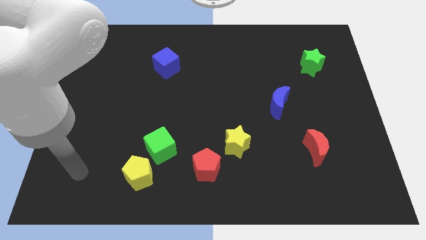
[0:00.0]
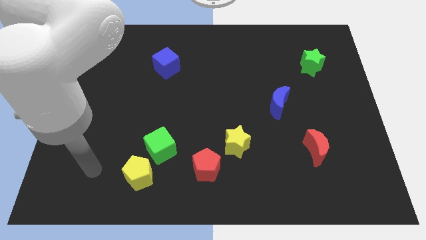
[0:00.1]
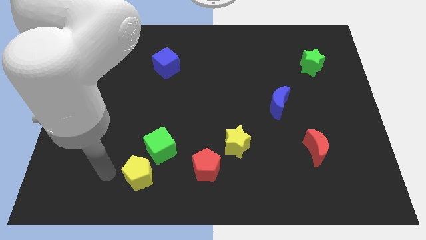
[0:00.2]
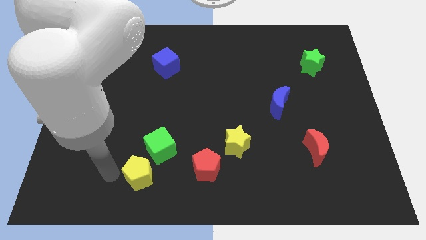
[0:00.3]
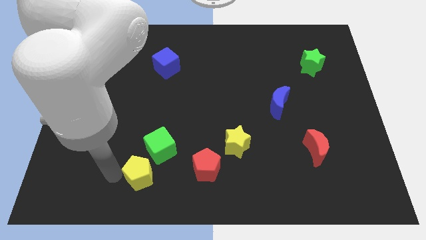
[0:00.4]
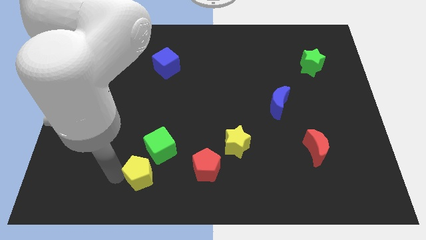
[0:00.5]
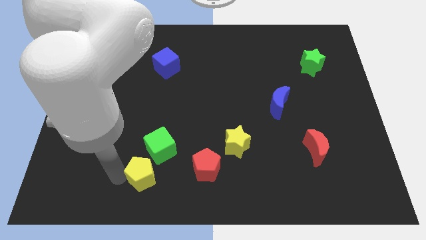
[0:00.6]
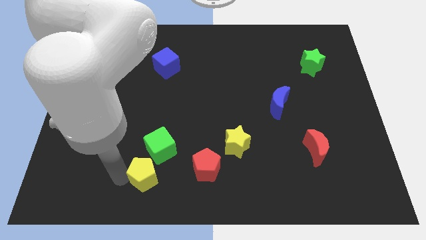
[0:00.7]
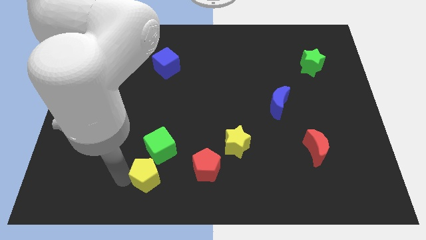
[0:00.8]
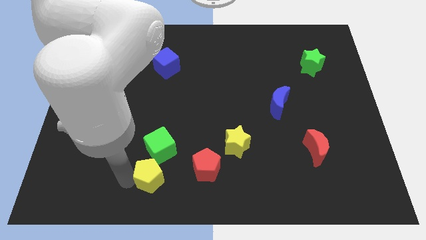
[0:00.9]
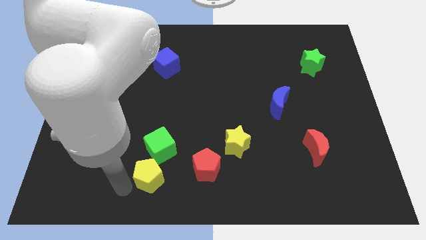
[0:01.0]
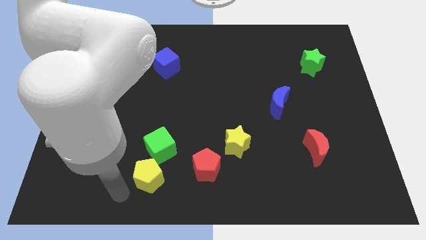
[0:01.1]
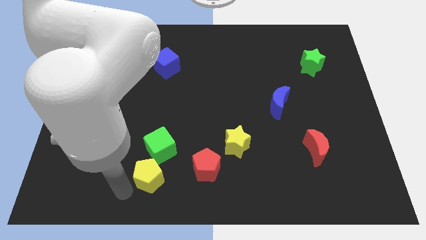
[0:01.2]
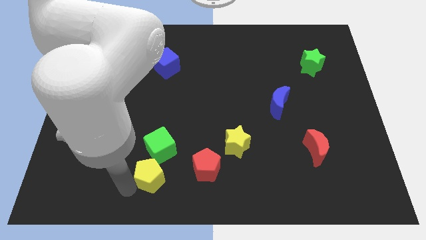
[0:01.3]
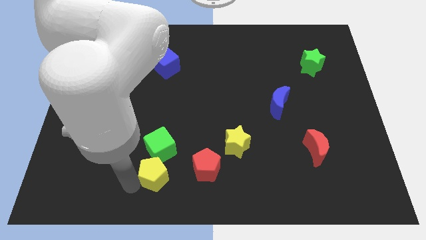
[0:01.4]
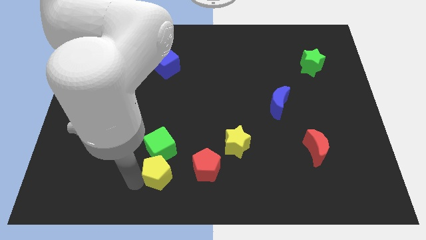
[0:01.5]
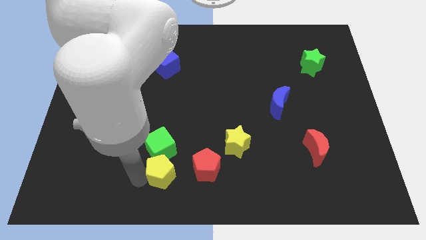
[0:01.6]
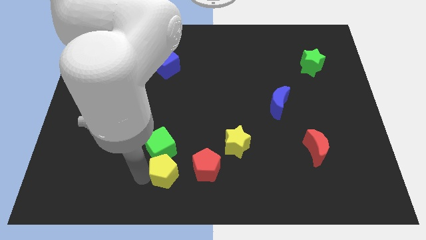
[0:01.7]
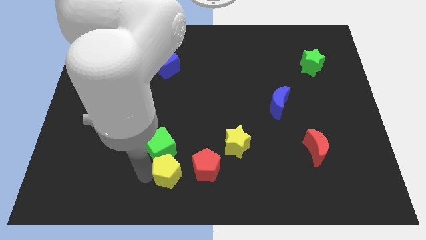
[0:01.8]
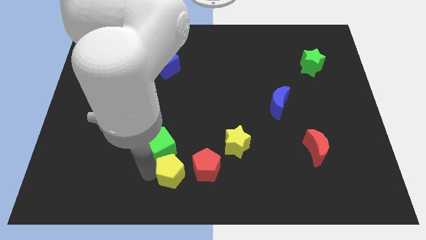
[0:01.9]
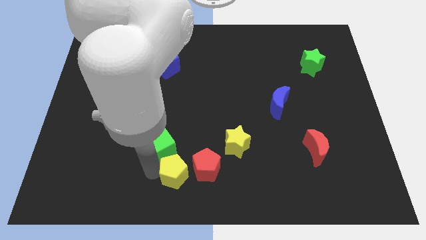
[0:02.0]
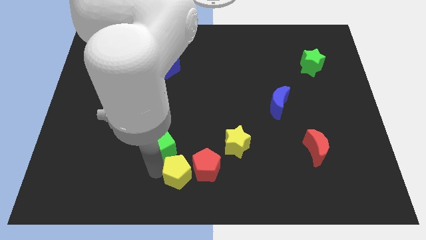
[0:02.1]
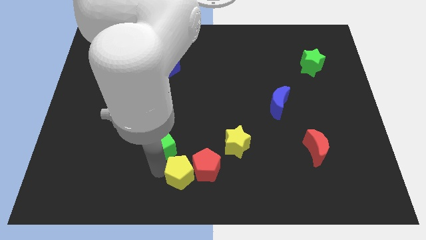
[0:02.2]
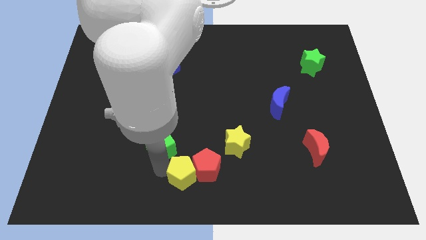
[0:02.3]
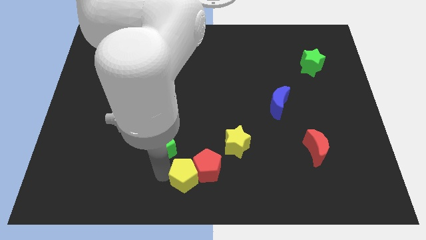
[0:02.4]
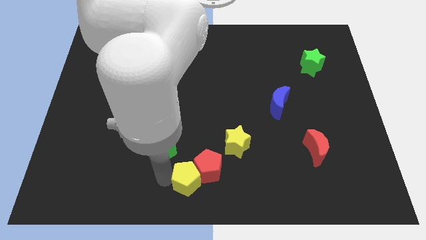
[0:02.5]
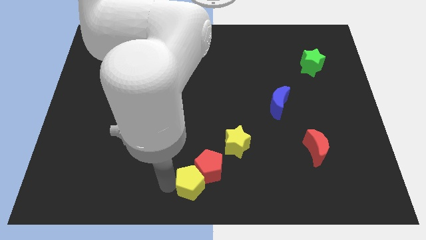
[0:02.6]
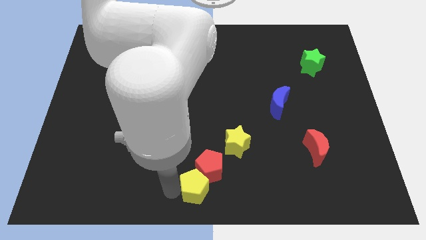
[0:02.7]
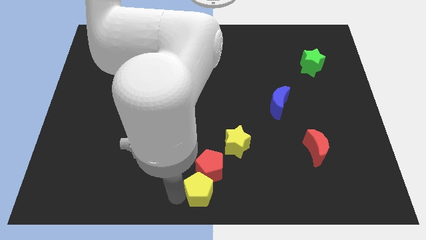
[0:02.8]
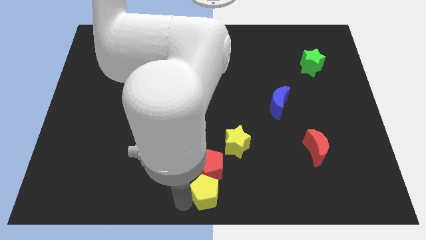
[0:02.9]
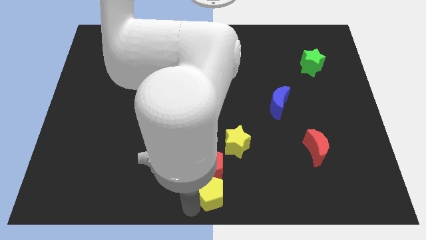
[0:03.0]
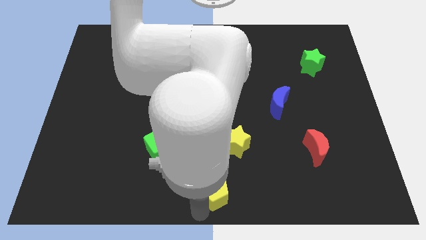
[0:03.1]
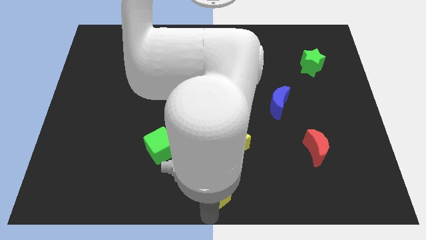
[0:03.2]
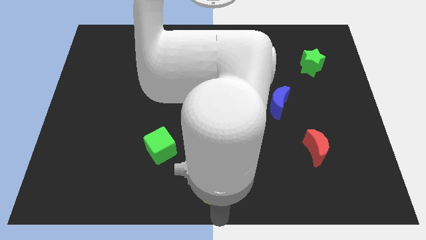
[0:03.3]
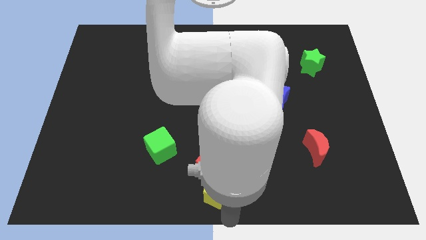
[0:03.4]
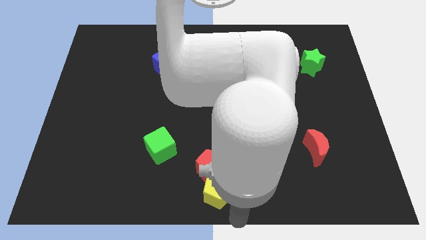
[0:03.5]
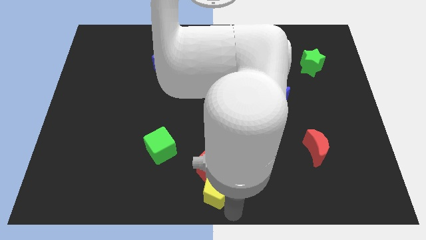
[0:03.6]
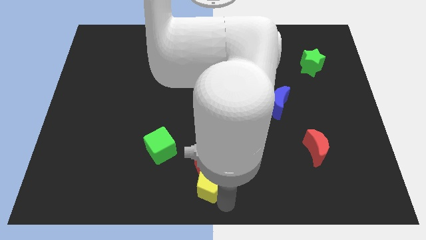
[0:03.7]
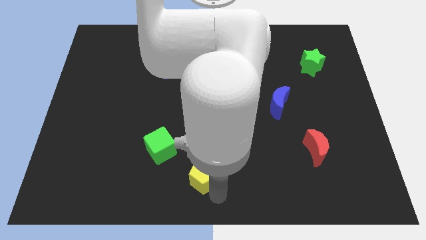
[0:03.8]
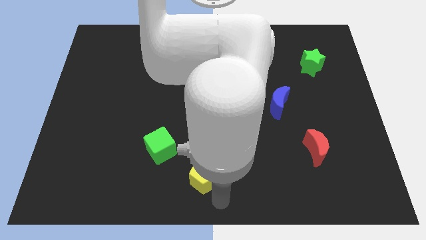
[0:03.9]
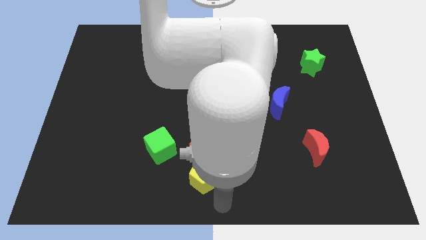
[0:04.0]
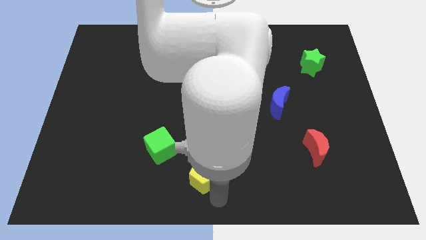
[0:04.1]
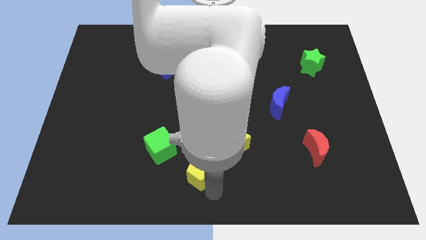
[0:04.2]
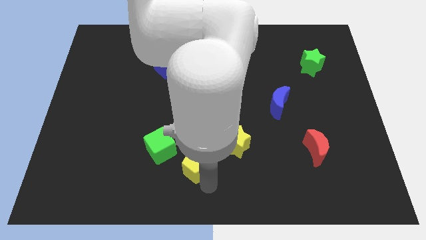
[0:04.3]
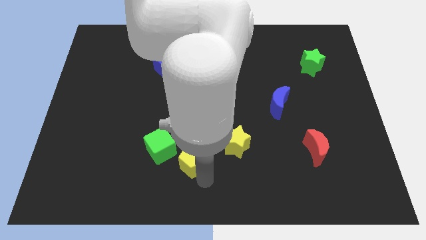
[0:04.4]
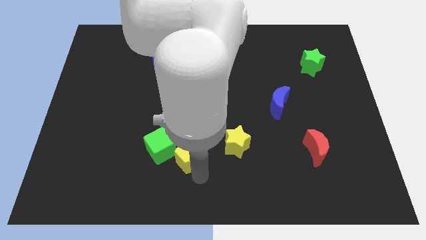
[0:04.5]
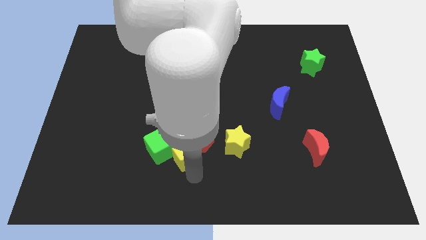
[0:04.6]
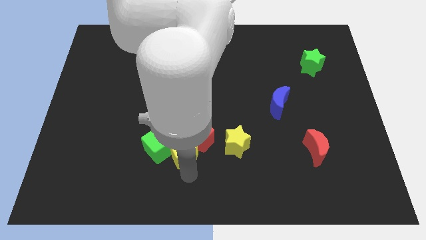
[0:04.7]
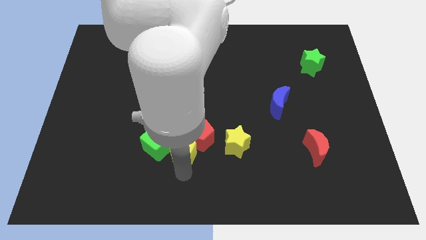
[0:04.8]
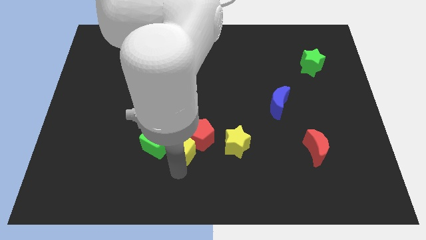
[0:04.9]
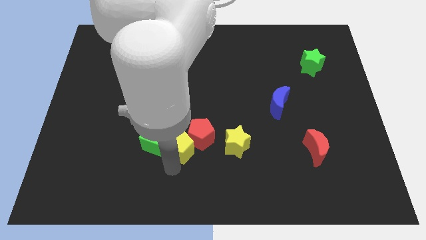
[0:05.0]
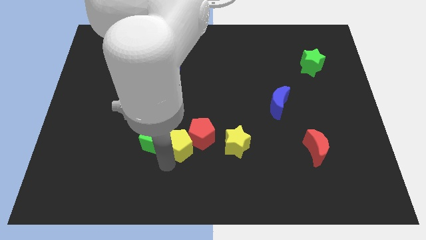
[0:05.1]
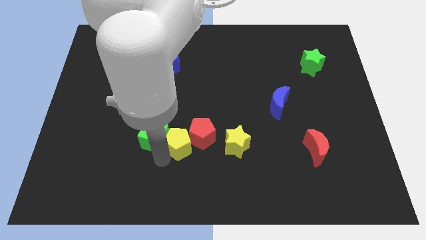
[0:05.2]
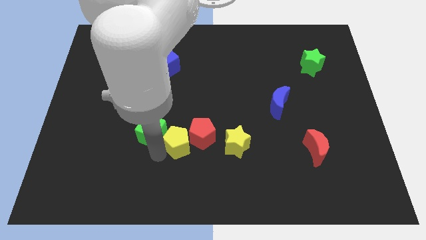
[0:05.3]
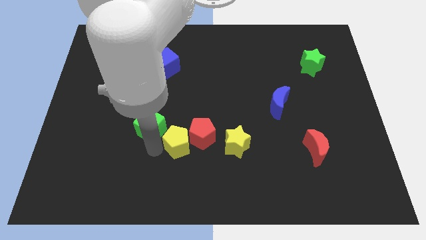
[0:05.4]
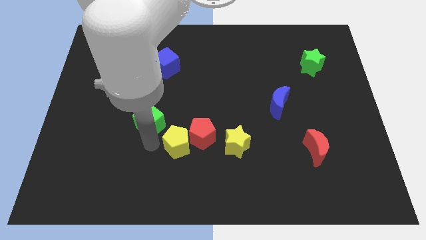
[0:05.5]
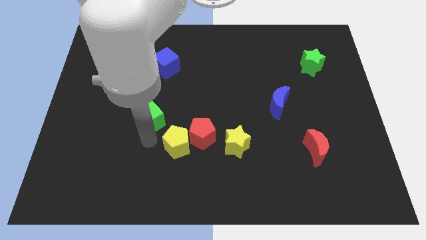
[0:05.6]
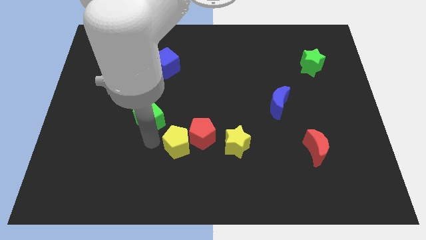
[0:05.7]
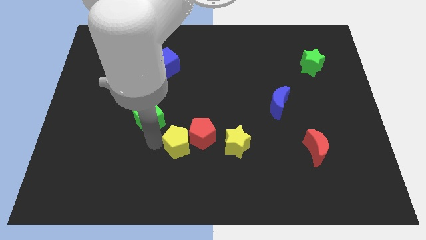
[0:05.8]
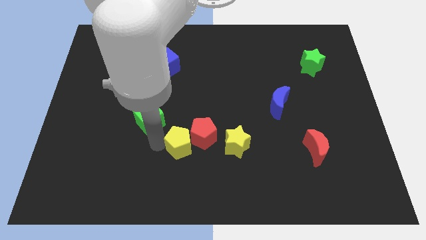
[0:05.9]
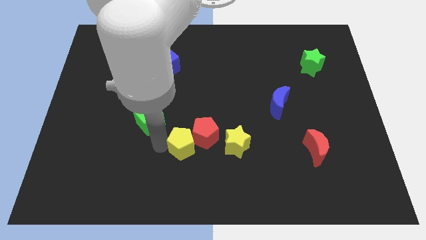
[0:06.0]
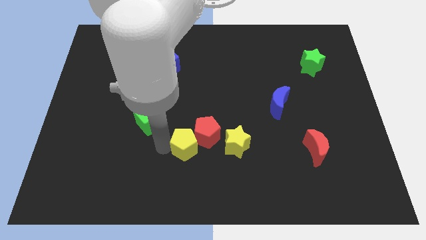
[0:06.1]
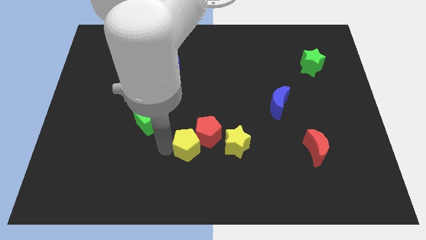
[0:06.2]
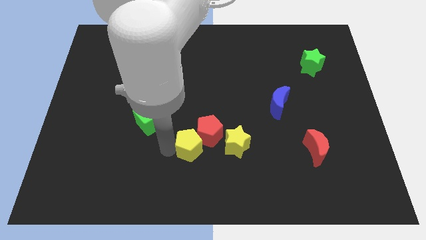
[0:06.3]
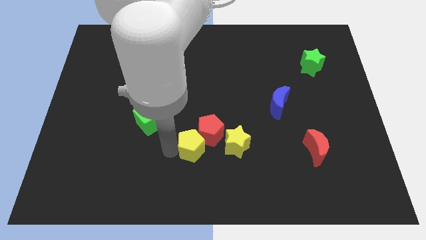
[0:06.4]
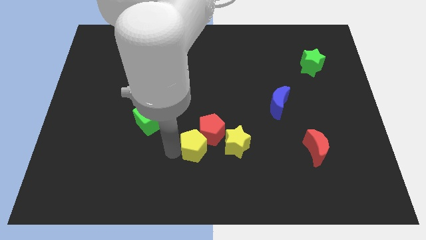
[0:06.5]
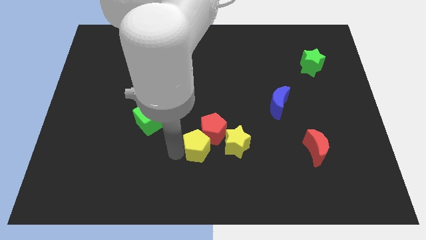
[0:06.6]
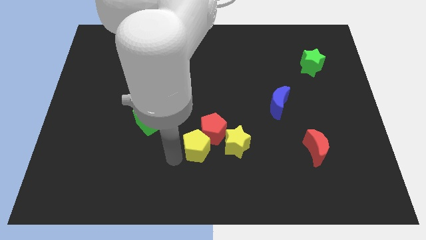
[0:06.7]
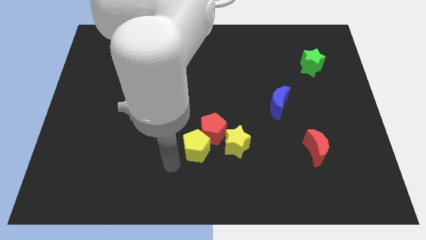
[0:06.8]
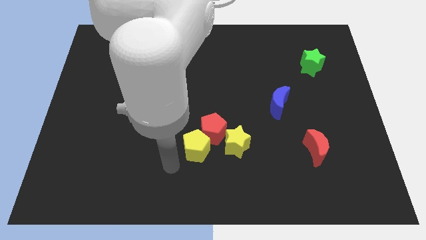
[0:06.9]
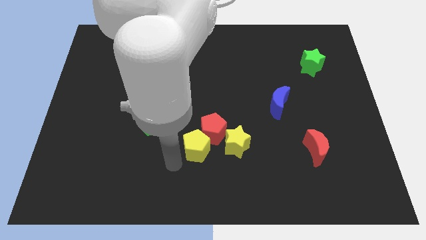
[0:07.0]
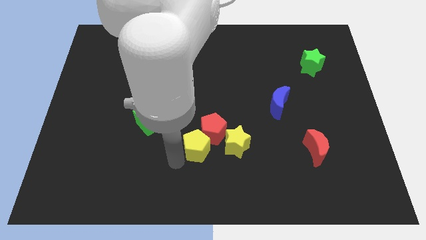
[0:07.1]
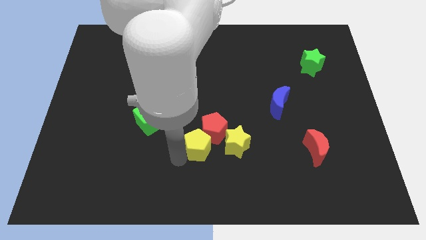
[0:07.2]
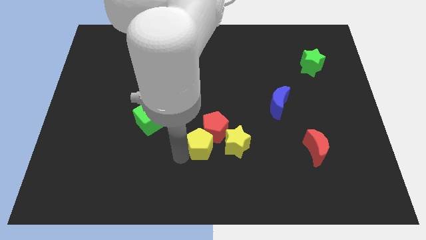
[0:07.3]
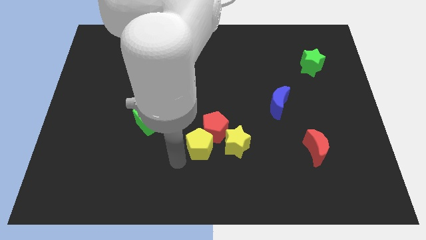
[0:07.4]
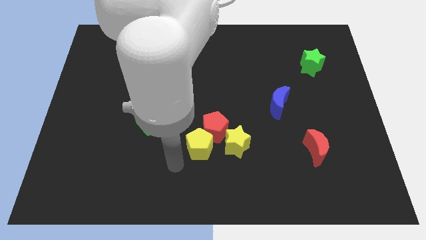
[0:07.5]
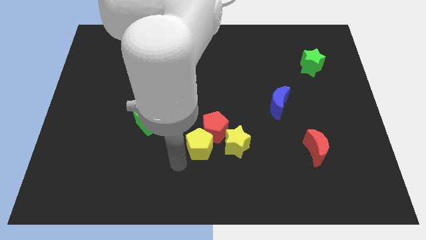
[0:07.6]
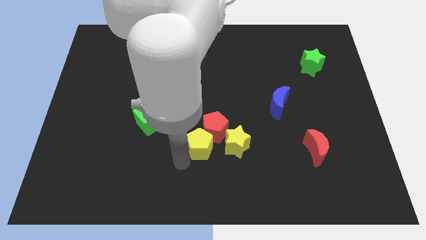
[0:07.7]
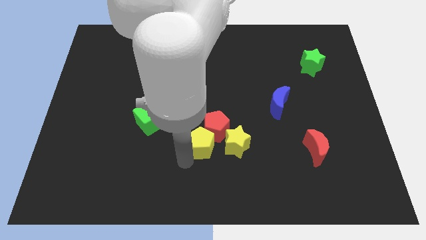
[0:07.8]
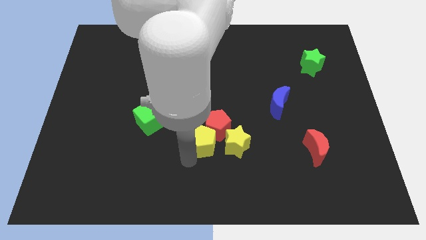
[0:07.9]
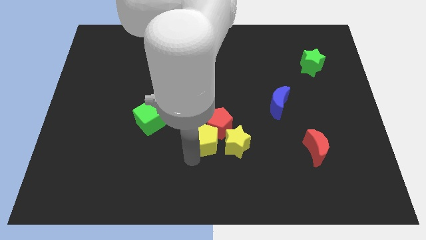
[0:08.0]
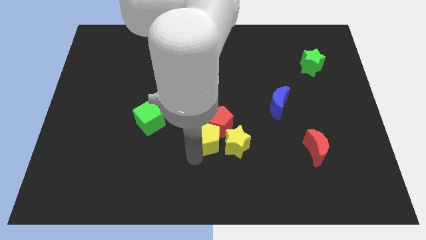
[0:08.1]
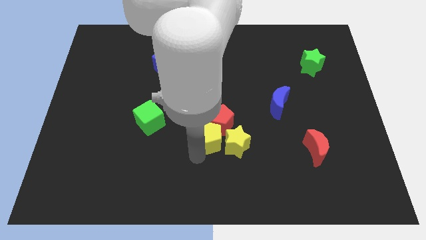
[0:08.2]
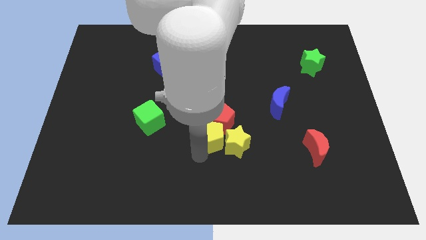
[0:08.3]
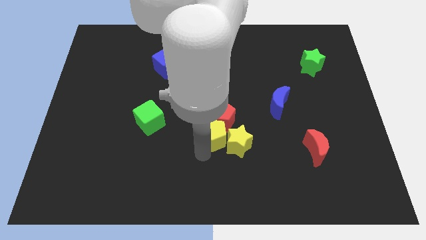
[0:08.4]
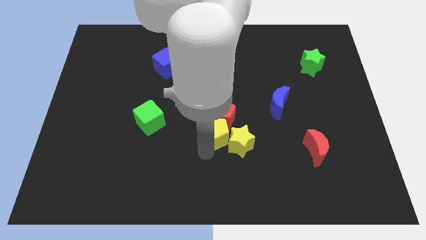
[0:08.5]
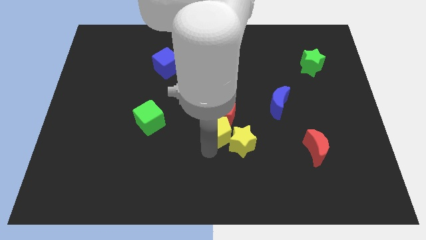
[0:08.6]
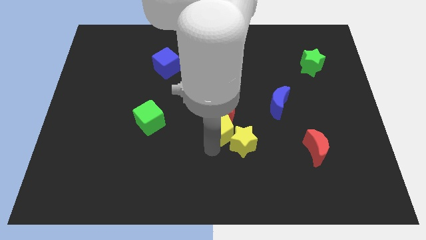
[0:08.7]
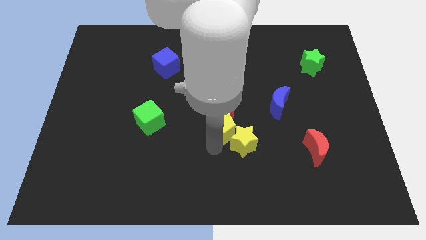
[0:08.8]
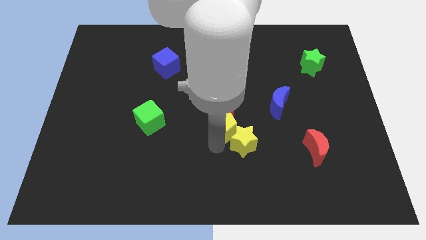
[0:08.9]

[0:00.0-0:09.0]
move the yellow pentagon upwards and to the right
